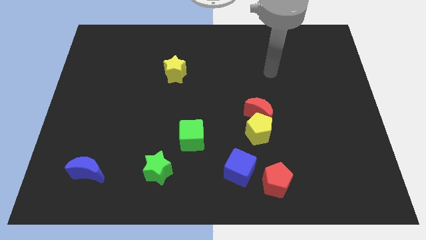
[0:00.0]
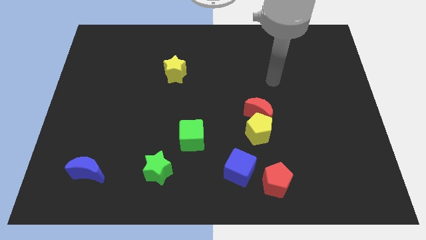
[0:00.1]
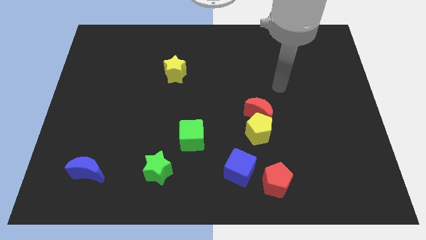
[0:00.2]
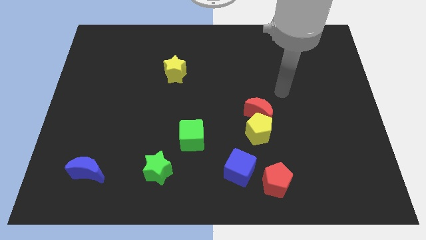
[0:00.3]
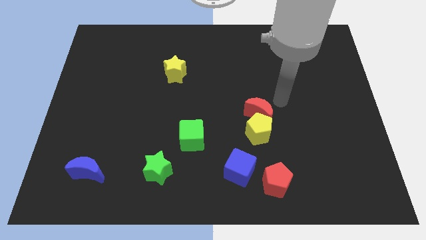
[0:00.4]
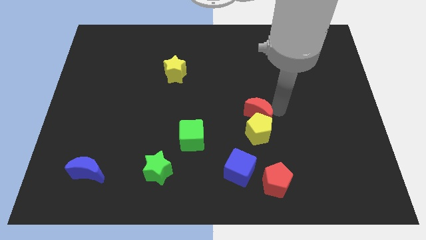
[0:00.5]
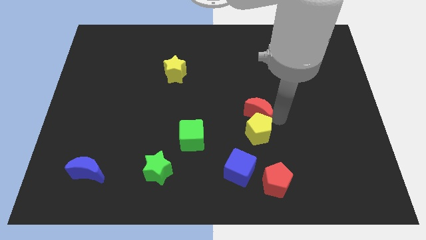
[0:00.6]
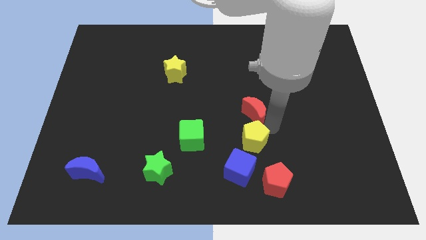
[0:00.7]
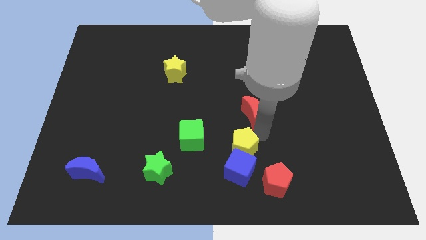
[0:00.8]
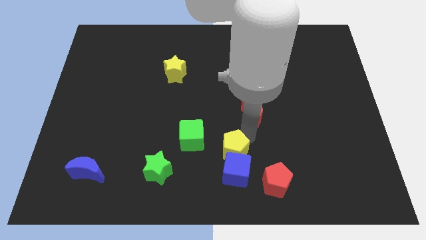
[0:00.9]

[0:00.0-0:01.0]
separate the red moon from the yellow pentagon

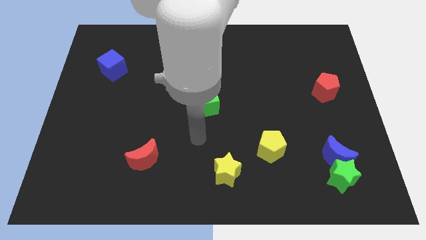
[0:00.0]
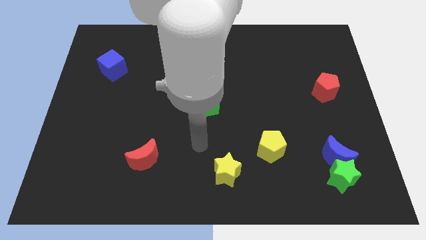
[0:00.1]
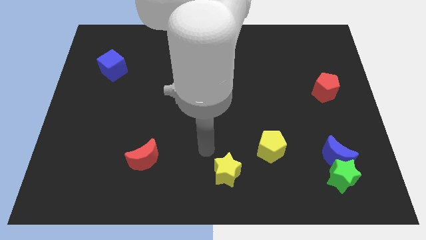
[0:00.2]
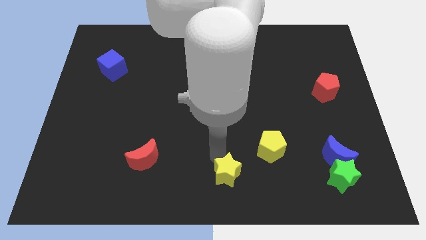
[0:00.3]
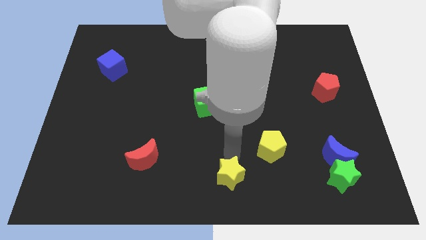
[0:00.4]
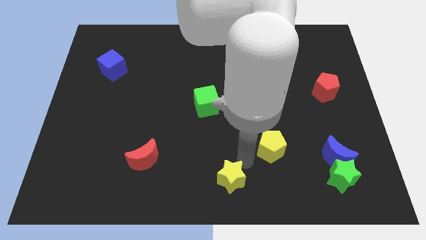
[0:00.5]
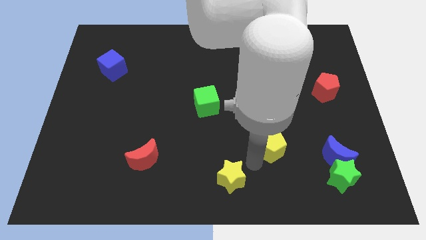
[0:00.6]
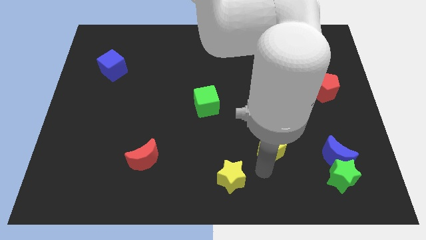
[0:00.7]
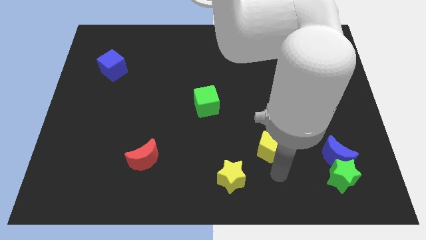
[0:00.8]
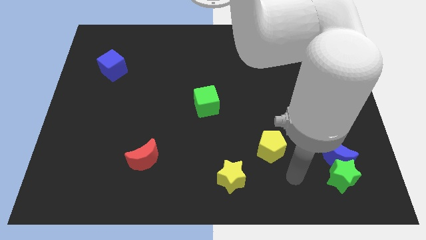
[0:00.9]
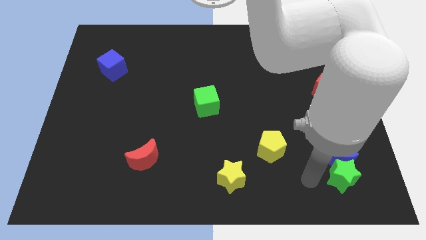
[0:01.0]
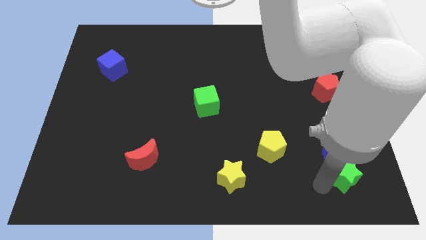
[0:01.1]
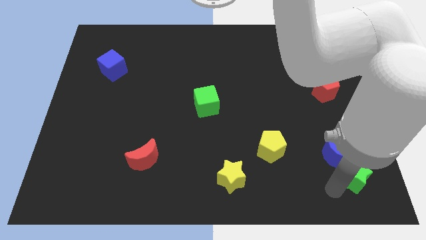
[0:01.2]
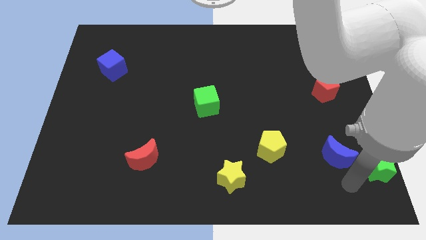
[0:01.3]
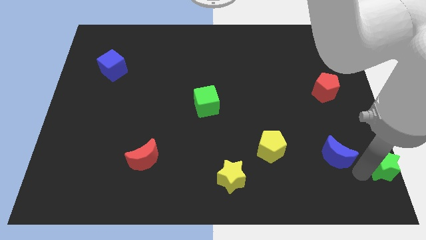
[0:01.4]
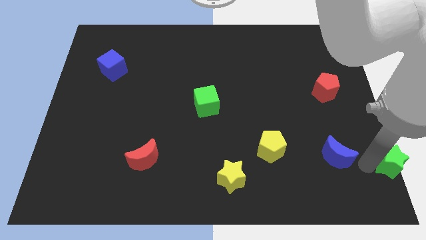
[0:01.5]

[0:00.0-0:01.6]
pull the blue moon apart from the green star

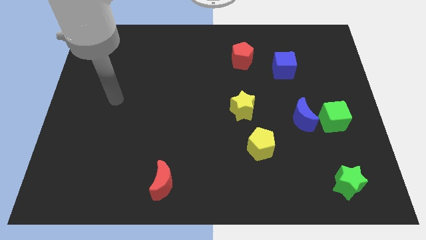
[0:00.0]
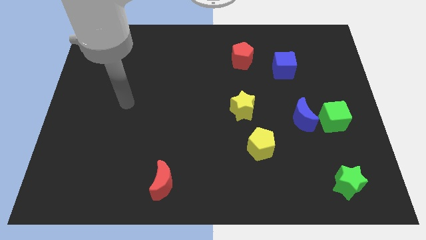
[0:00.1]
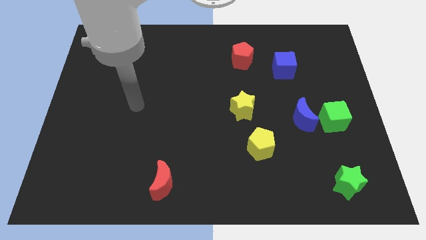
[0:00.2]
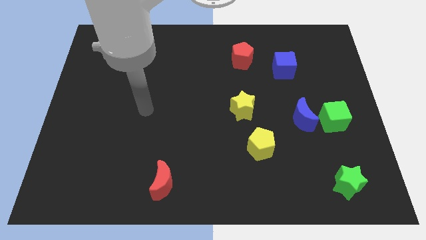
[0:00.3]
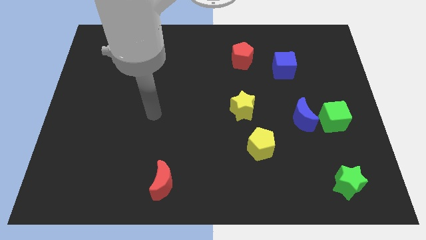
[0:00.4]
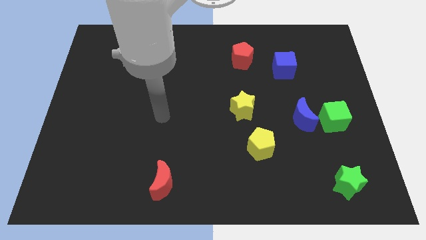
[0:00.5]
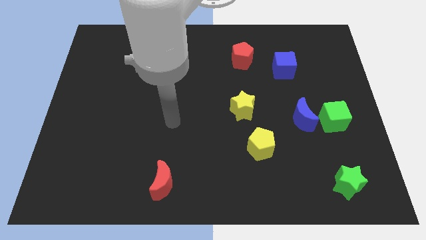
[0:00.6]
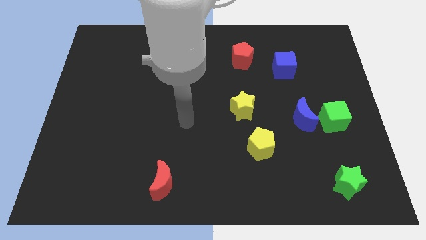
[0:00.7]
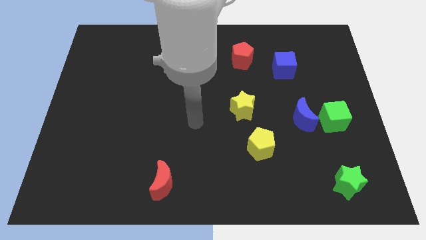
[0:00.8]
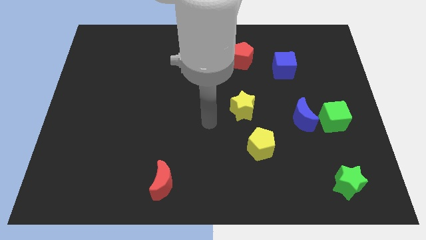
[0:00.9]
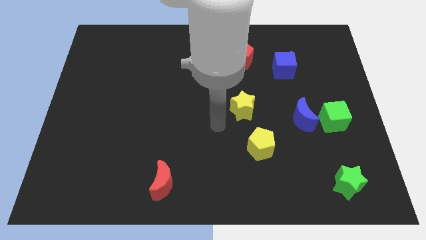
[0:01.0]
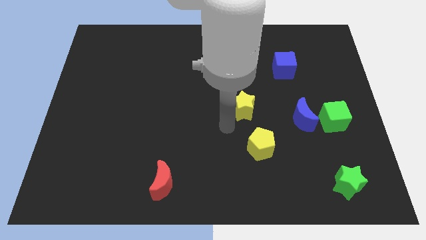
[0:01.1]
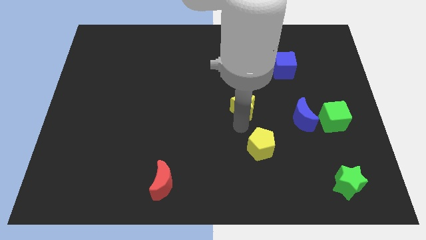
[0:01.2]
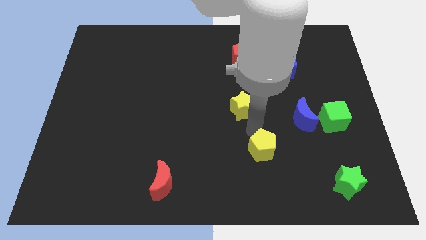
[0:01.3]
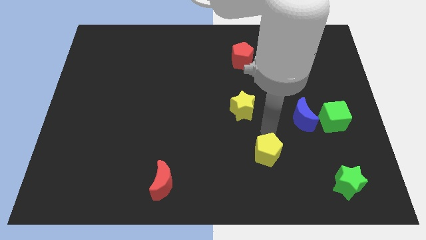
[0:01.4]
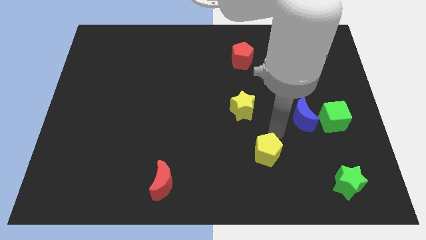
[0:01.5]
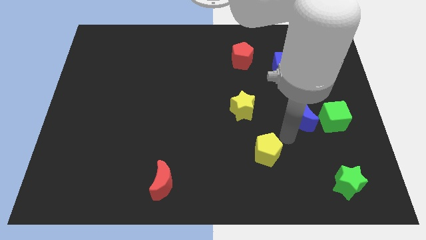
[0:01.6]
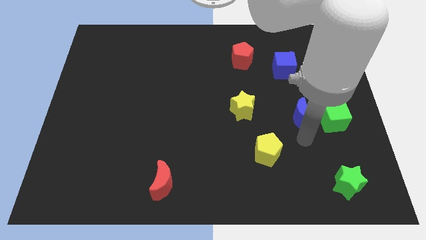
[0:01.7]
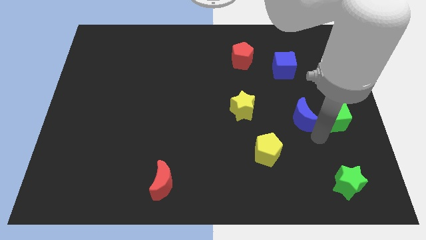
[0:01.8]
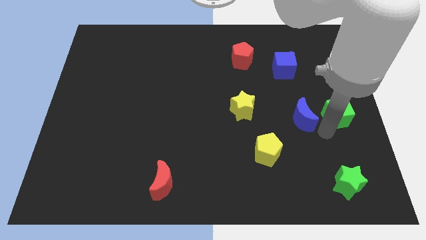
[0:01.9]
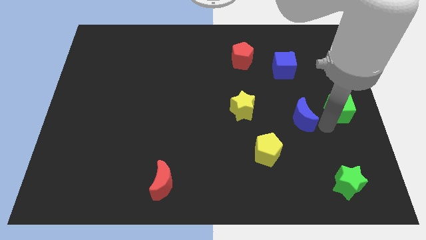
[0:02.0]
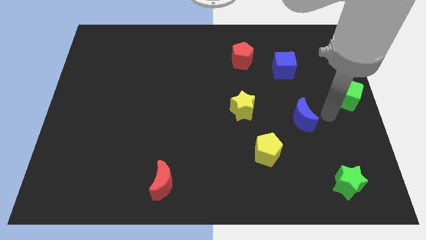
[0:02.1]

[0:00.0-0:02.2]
pull the blue moon apart from the green cube

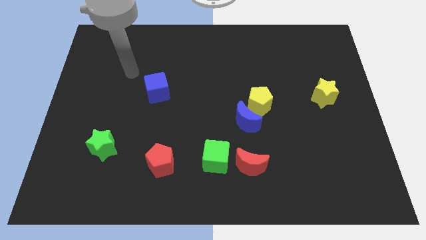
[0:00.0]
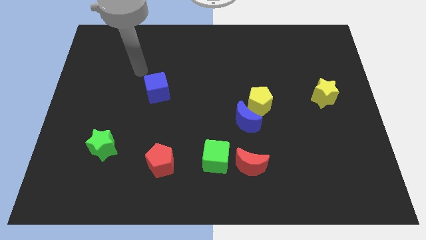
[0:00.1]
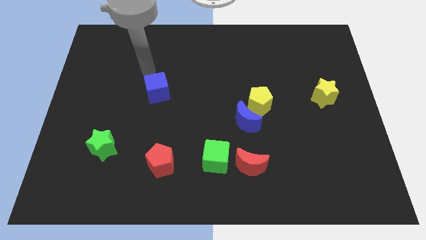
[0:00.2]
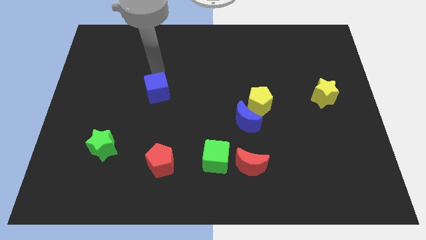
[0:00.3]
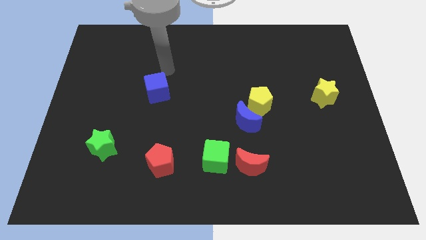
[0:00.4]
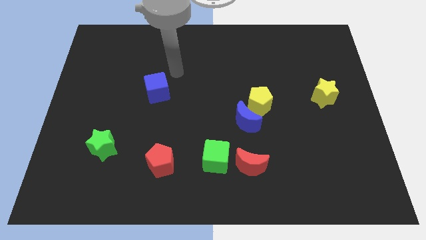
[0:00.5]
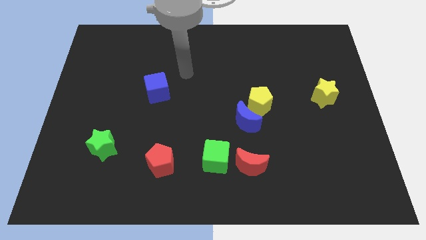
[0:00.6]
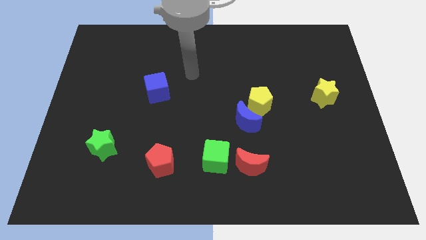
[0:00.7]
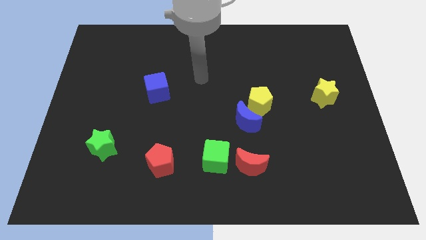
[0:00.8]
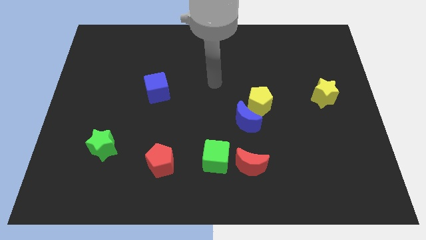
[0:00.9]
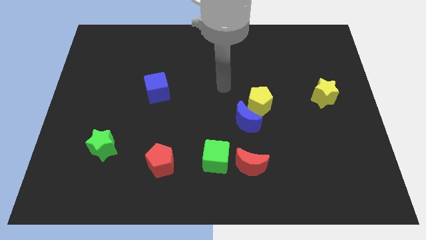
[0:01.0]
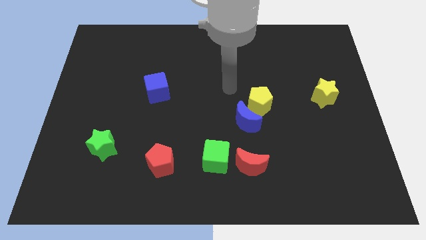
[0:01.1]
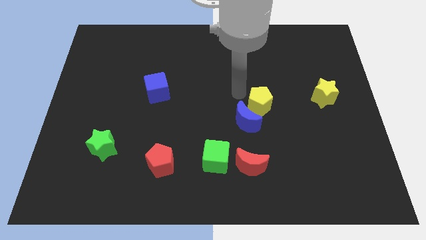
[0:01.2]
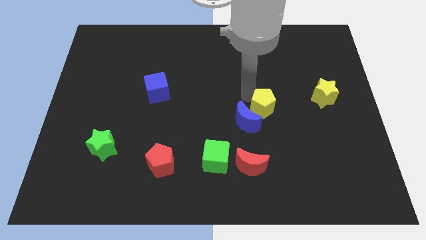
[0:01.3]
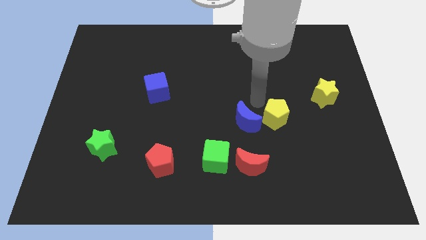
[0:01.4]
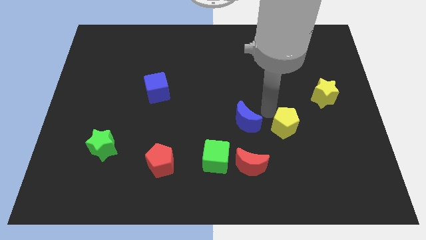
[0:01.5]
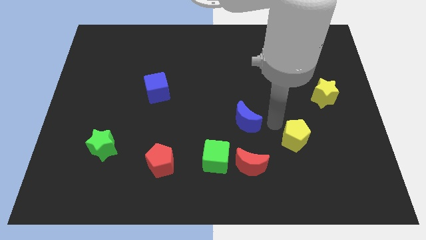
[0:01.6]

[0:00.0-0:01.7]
pull the blue moon apart from the yellow pentagon

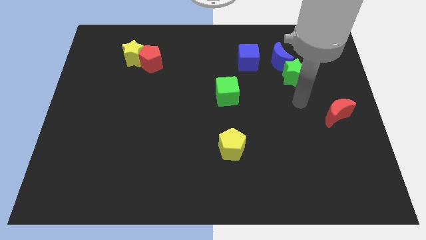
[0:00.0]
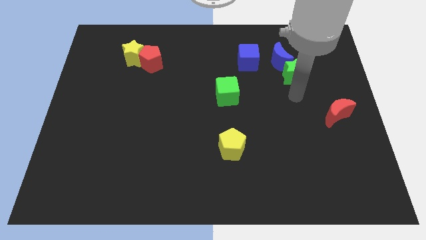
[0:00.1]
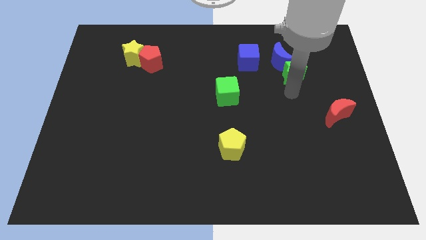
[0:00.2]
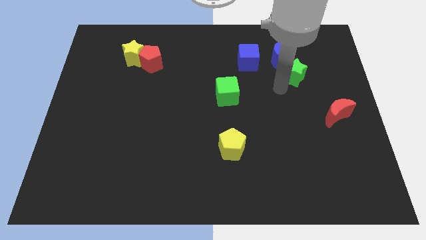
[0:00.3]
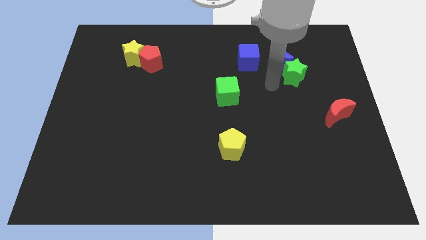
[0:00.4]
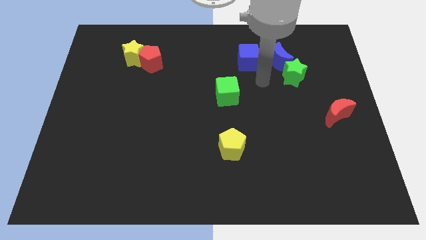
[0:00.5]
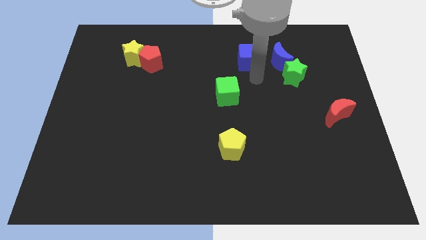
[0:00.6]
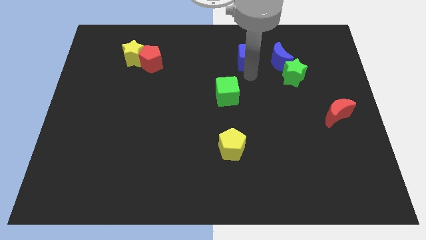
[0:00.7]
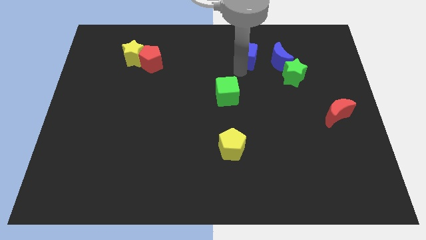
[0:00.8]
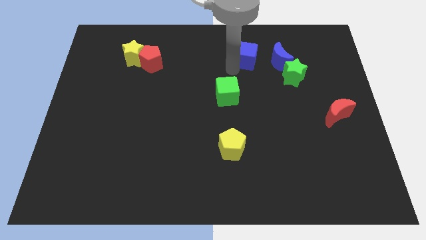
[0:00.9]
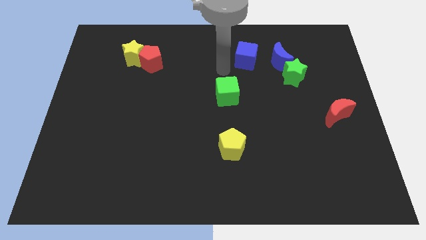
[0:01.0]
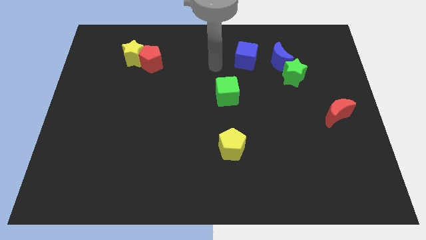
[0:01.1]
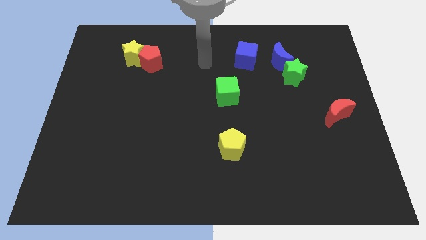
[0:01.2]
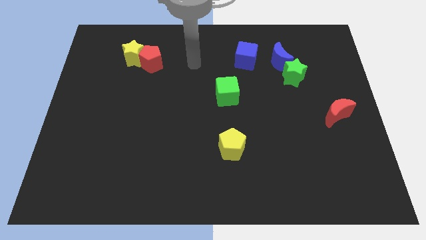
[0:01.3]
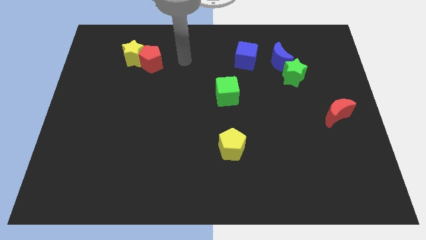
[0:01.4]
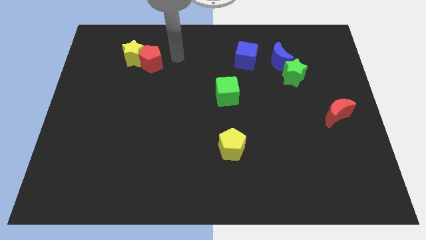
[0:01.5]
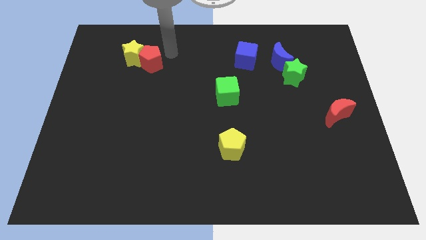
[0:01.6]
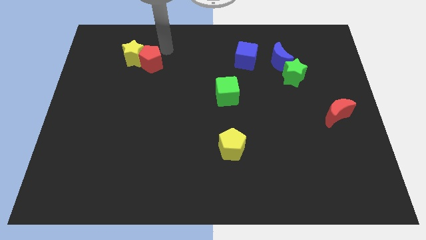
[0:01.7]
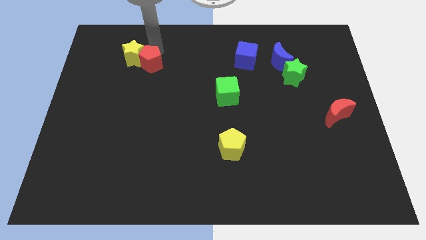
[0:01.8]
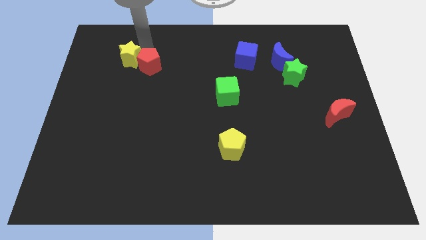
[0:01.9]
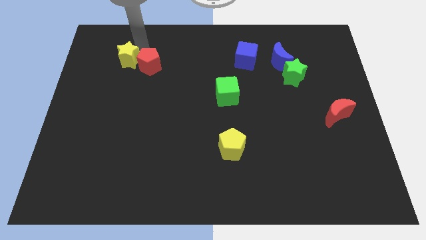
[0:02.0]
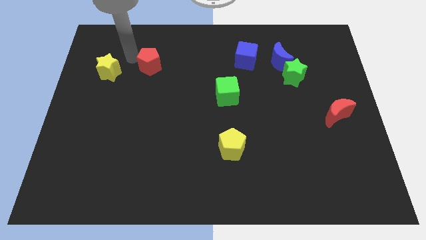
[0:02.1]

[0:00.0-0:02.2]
separate the red pentagon from the yellow star

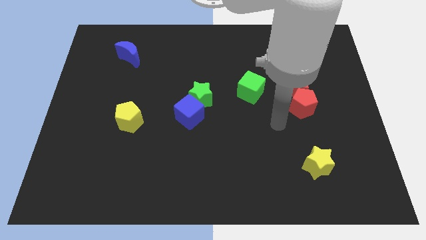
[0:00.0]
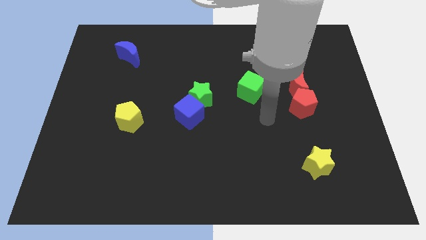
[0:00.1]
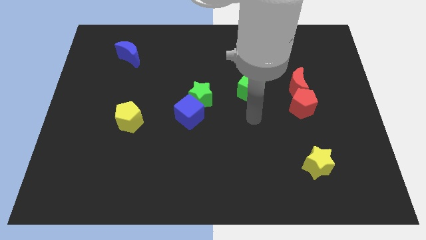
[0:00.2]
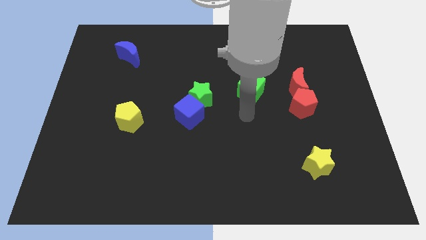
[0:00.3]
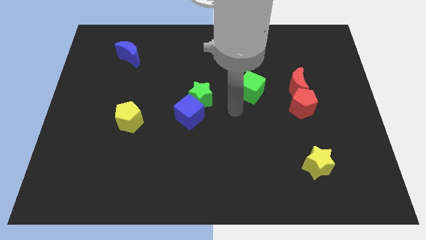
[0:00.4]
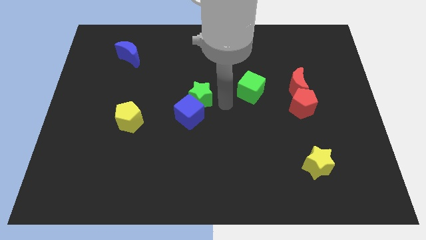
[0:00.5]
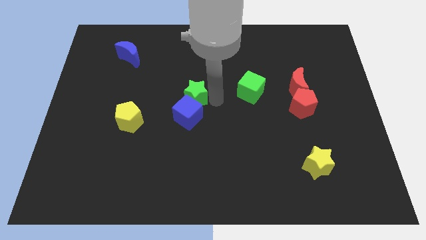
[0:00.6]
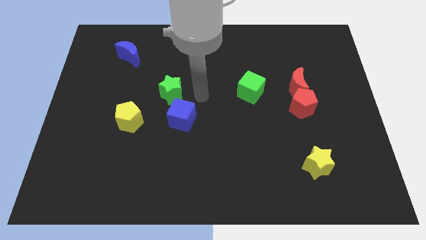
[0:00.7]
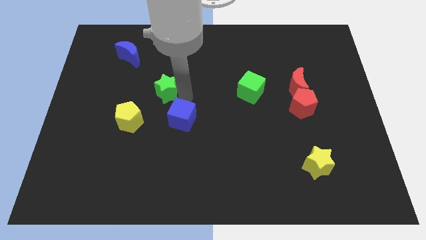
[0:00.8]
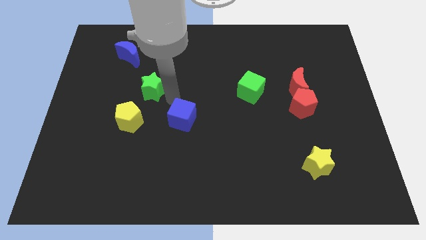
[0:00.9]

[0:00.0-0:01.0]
pull the blue cube apart from the green star
